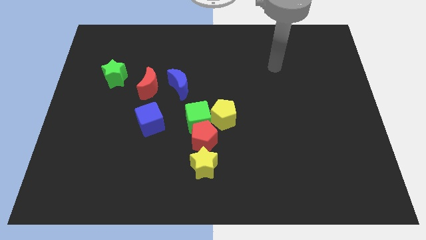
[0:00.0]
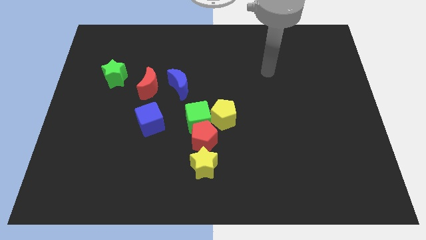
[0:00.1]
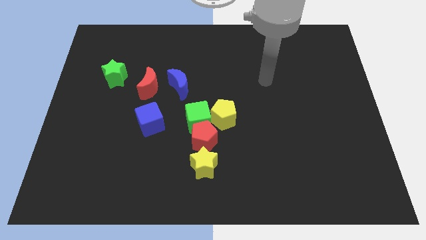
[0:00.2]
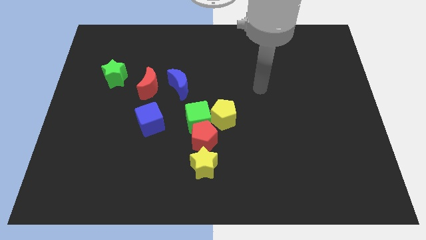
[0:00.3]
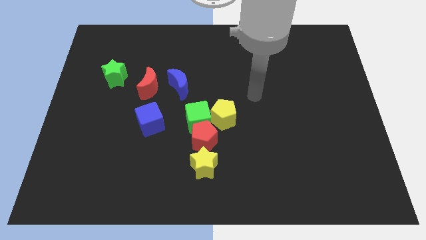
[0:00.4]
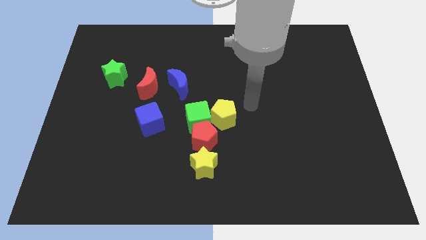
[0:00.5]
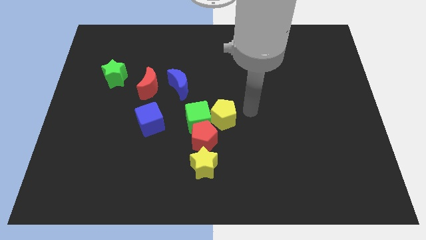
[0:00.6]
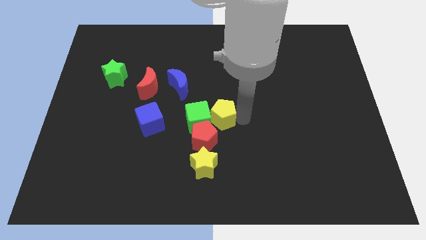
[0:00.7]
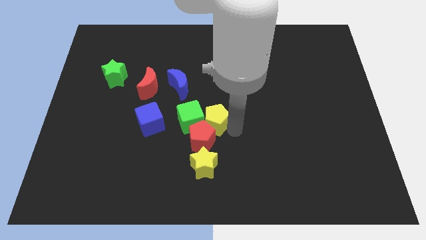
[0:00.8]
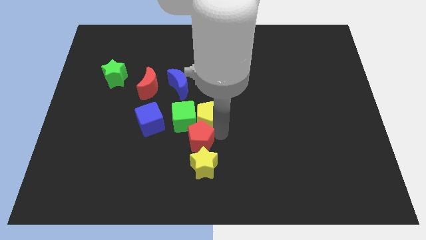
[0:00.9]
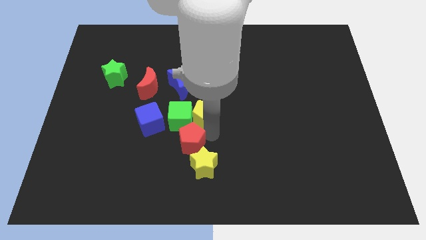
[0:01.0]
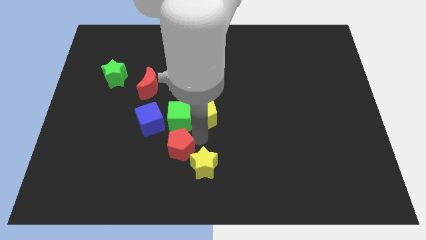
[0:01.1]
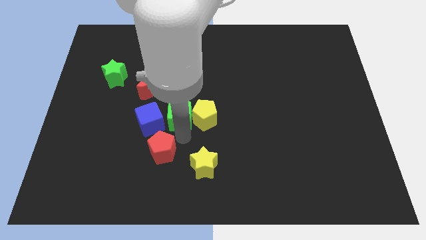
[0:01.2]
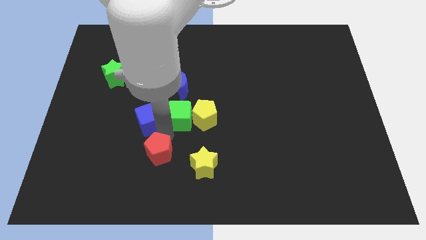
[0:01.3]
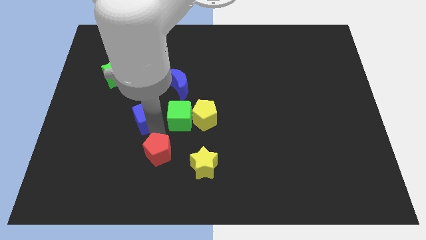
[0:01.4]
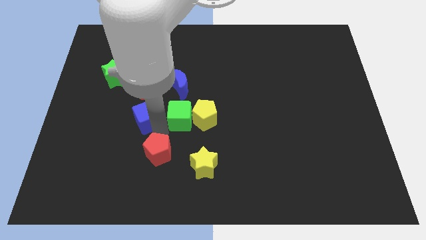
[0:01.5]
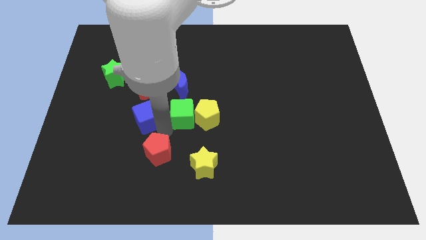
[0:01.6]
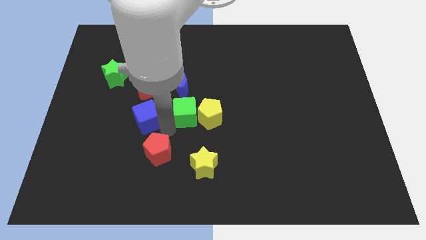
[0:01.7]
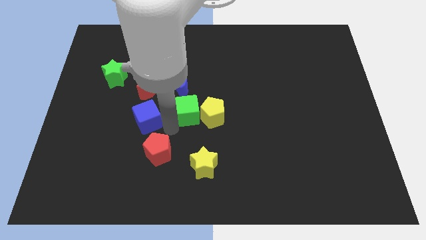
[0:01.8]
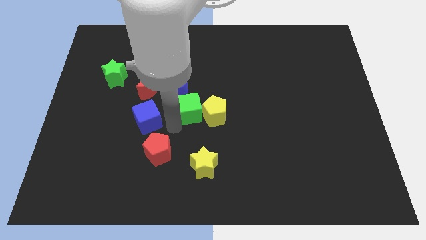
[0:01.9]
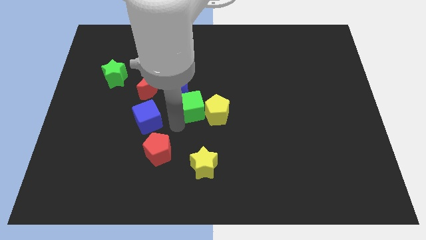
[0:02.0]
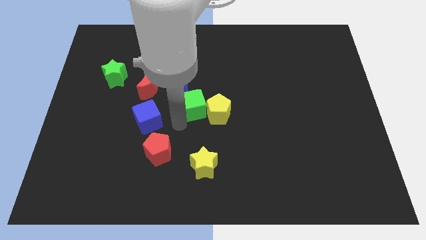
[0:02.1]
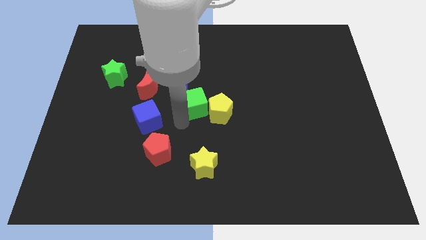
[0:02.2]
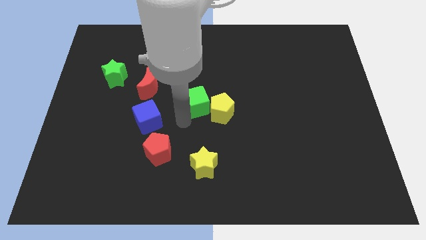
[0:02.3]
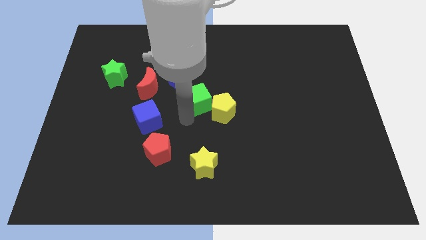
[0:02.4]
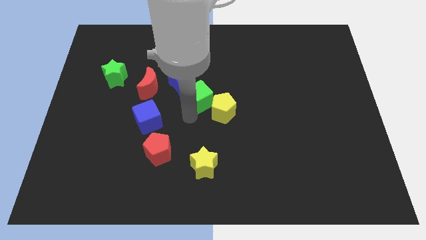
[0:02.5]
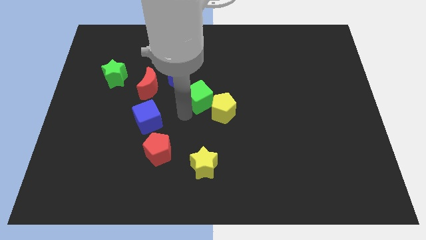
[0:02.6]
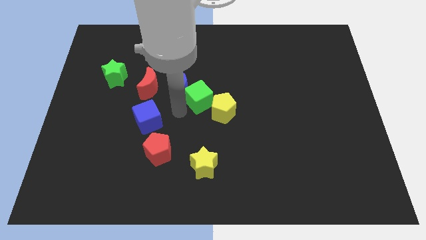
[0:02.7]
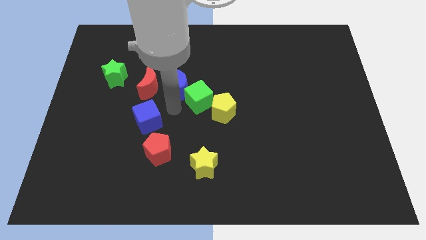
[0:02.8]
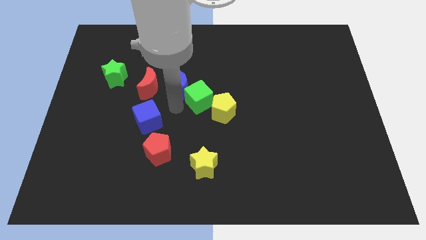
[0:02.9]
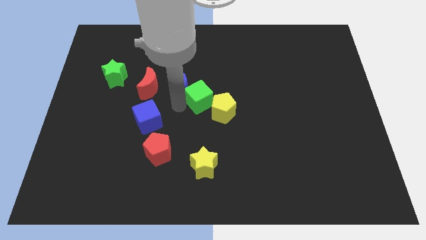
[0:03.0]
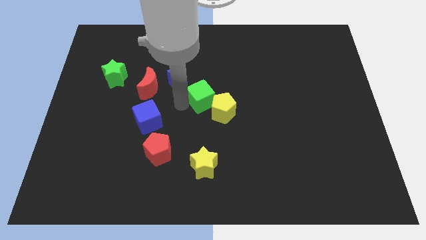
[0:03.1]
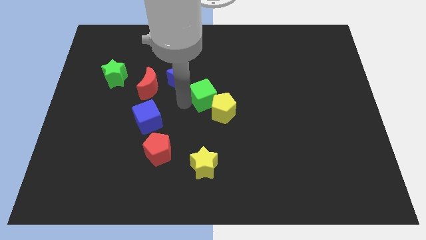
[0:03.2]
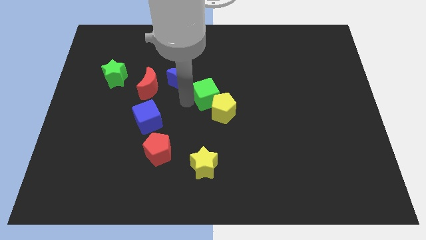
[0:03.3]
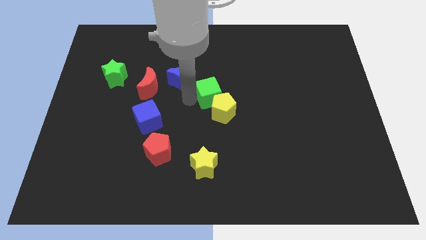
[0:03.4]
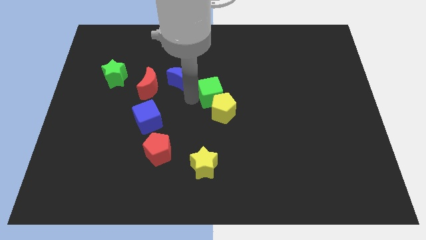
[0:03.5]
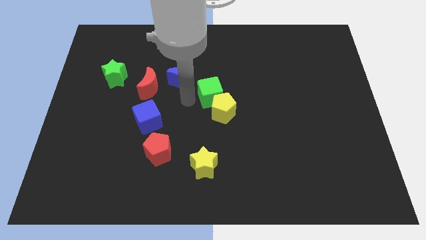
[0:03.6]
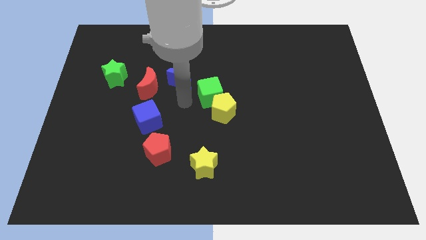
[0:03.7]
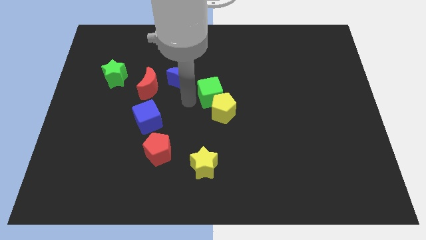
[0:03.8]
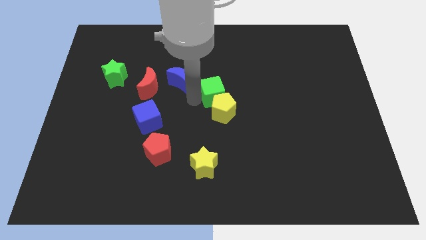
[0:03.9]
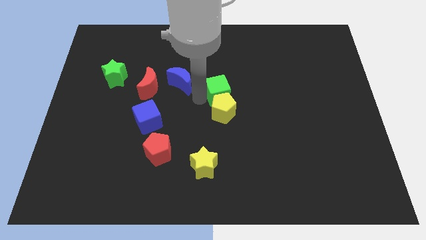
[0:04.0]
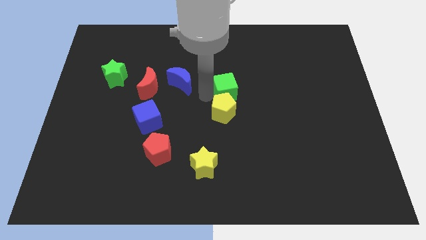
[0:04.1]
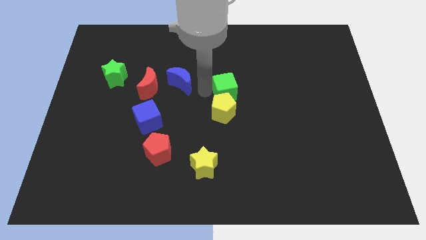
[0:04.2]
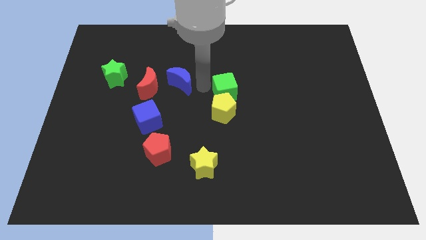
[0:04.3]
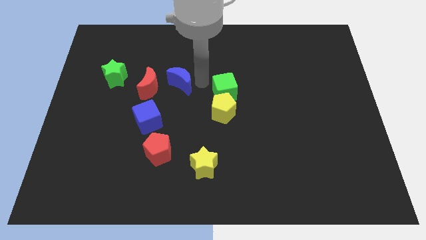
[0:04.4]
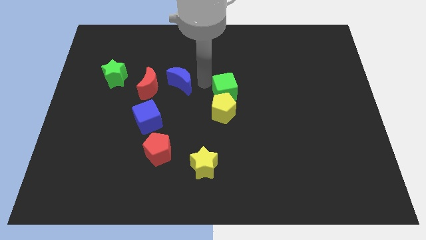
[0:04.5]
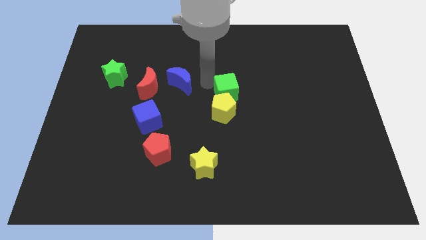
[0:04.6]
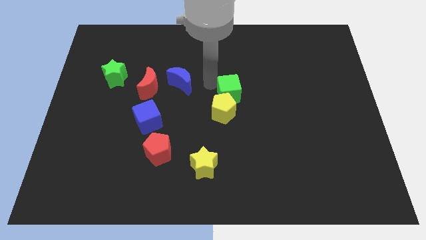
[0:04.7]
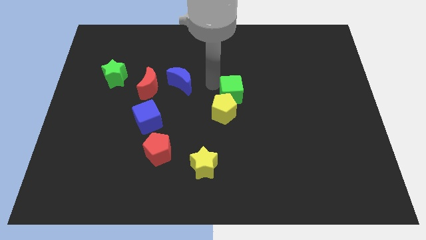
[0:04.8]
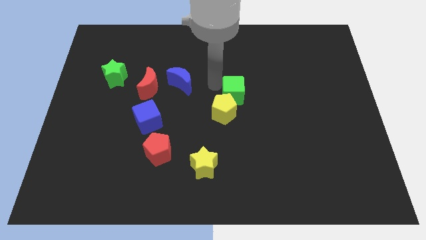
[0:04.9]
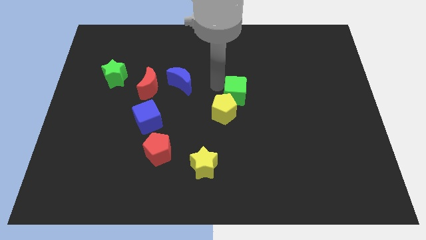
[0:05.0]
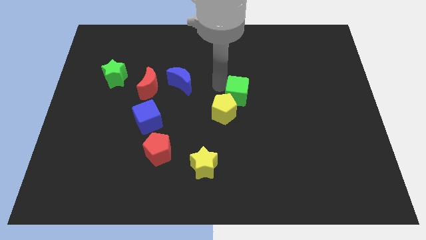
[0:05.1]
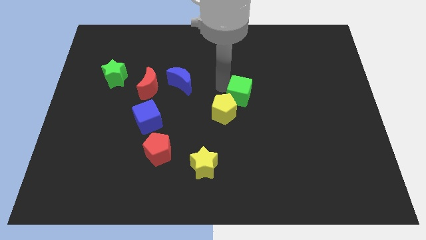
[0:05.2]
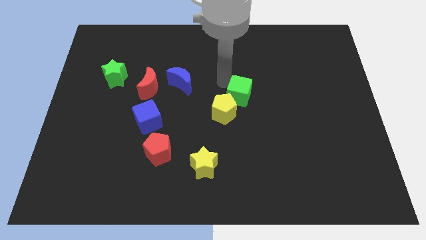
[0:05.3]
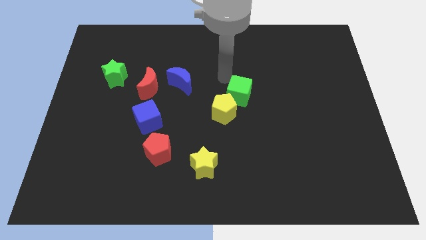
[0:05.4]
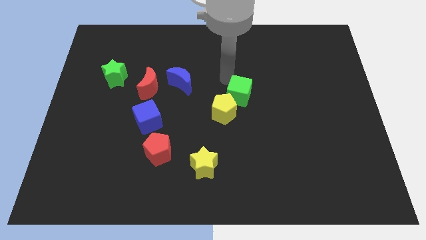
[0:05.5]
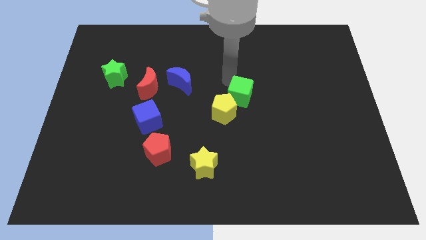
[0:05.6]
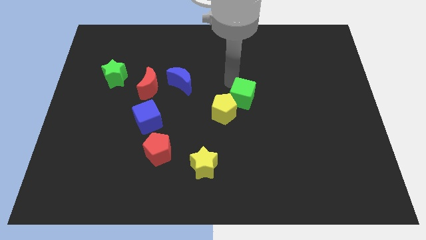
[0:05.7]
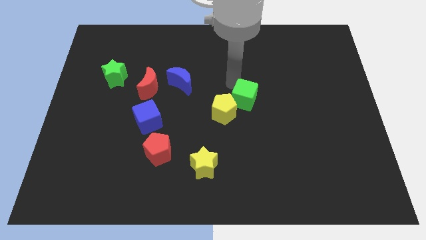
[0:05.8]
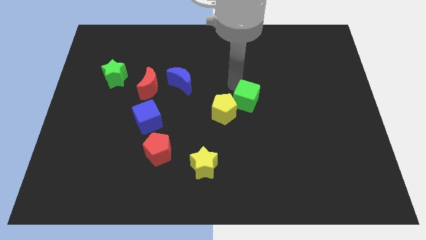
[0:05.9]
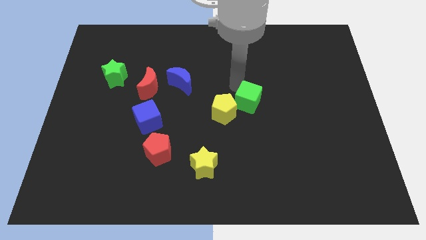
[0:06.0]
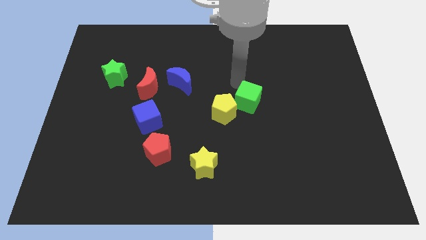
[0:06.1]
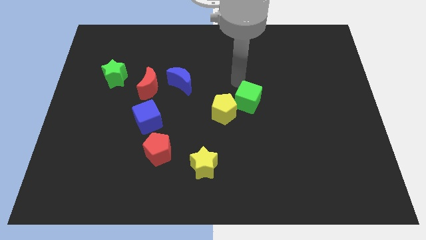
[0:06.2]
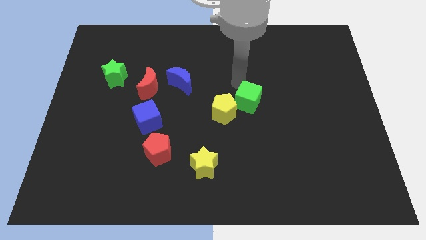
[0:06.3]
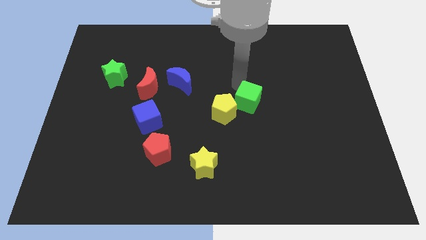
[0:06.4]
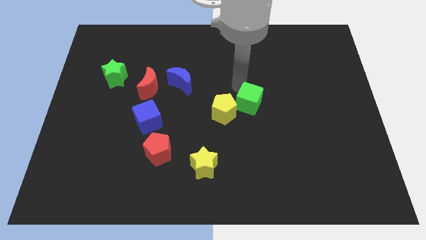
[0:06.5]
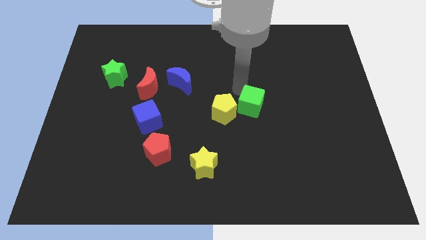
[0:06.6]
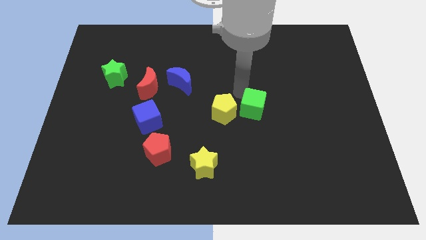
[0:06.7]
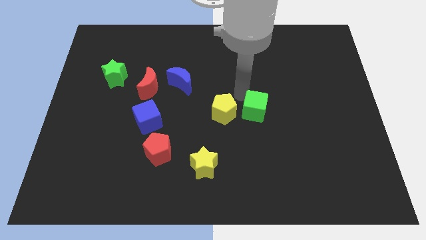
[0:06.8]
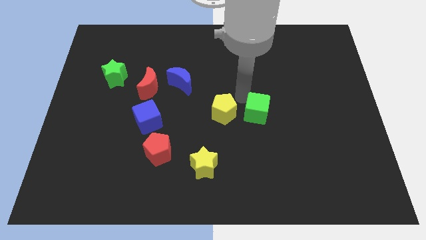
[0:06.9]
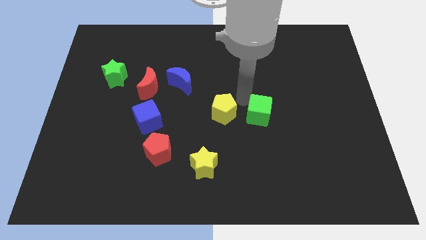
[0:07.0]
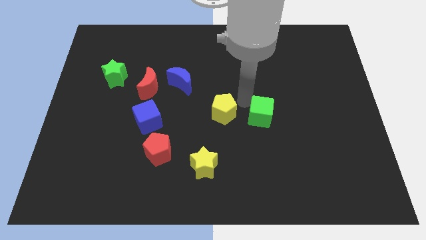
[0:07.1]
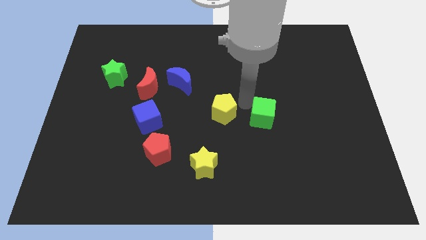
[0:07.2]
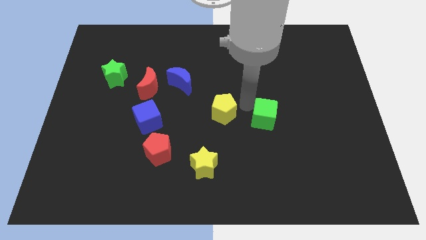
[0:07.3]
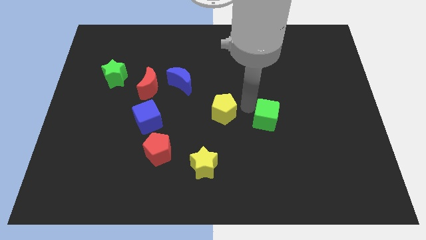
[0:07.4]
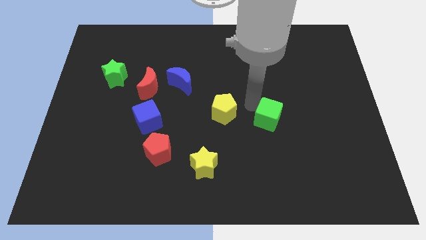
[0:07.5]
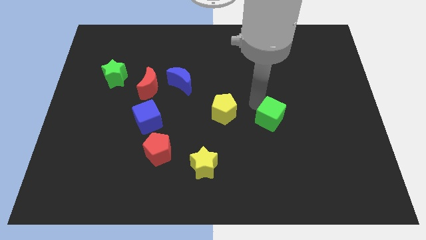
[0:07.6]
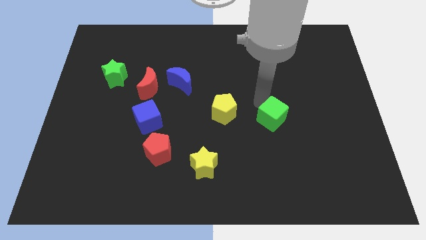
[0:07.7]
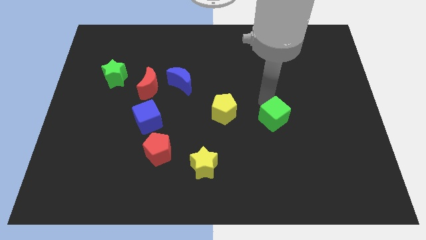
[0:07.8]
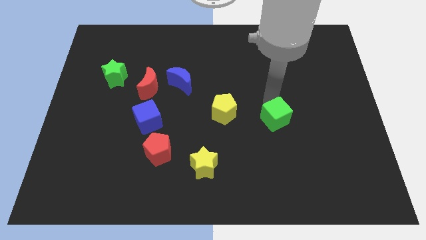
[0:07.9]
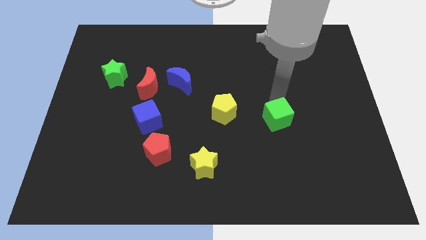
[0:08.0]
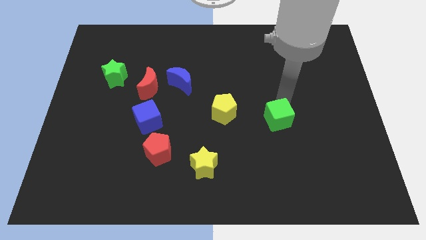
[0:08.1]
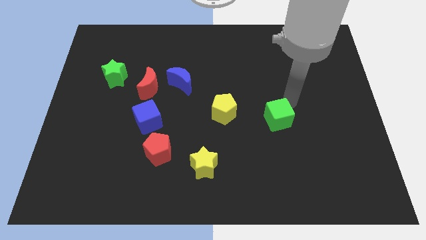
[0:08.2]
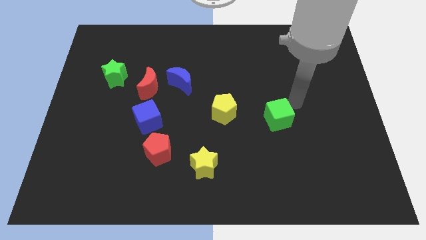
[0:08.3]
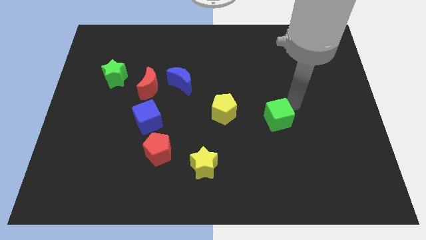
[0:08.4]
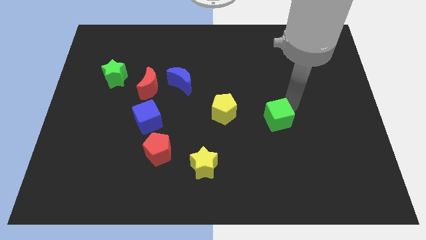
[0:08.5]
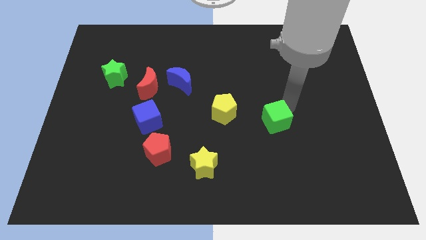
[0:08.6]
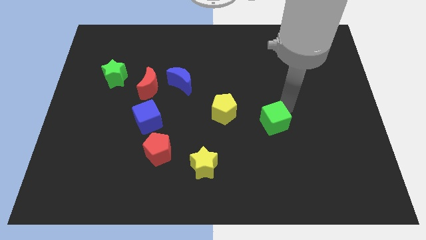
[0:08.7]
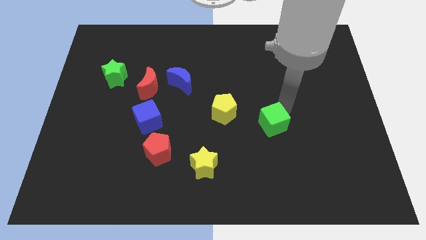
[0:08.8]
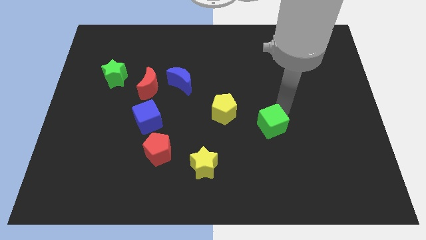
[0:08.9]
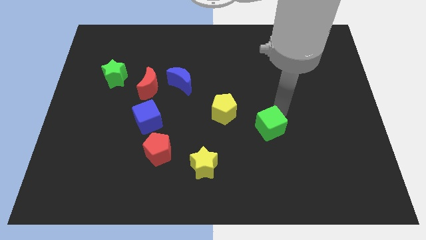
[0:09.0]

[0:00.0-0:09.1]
slide the green cube to the bottom right side of the yellow pentagon
